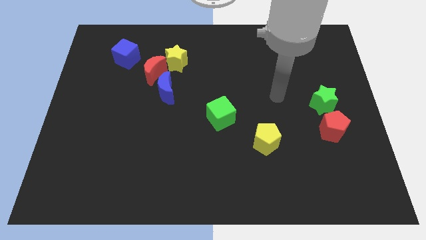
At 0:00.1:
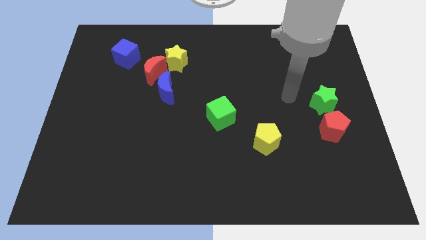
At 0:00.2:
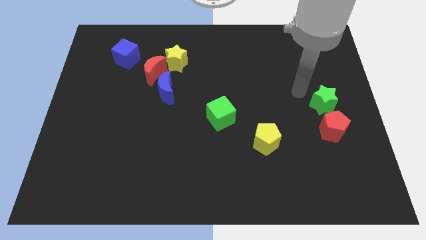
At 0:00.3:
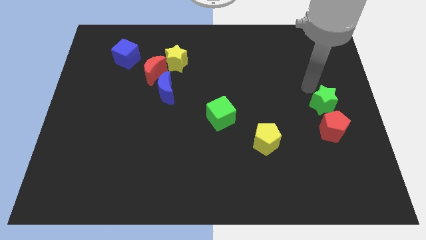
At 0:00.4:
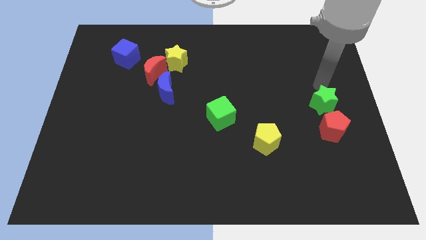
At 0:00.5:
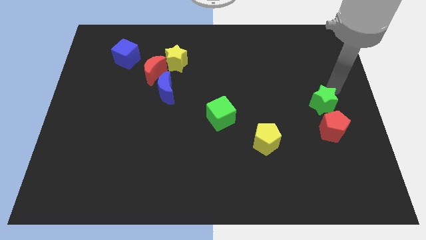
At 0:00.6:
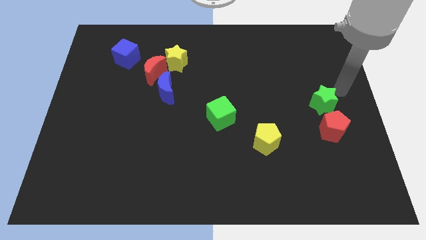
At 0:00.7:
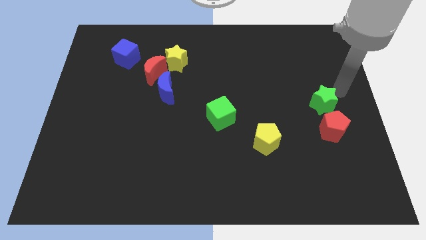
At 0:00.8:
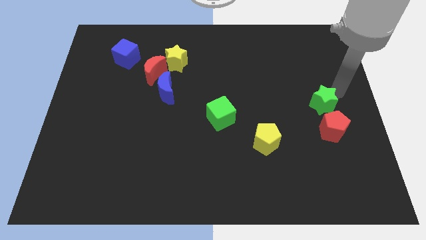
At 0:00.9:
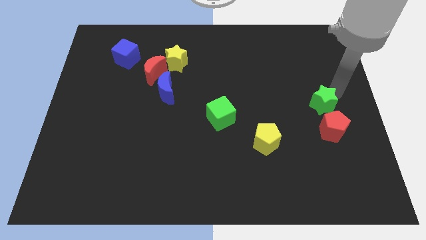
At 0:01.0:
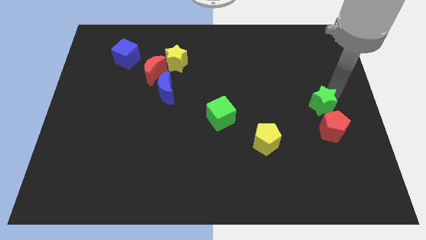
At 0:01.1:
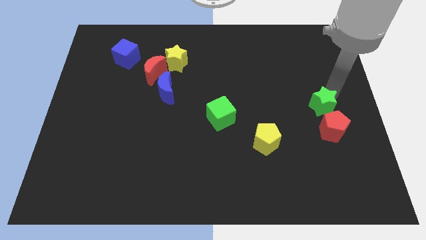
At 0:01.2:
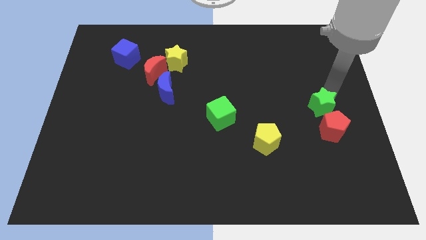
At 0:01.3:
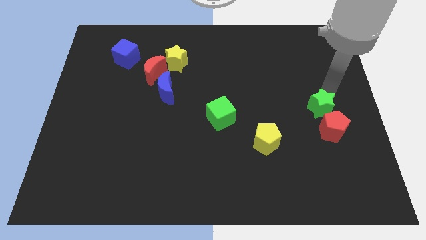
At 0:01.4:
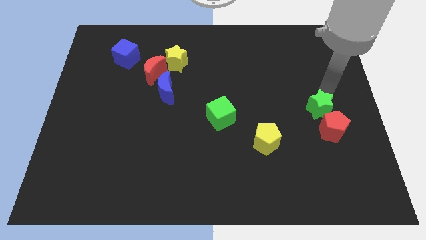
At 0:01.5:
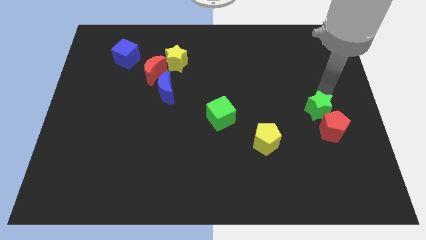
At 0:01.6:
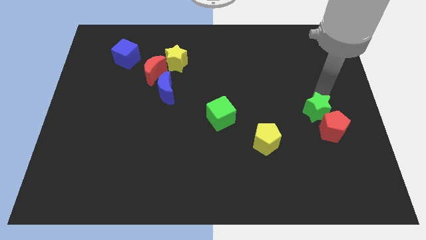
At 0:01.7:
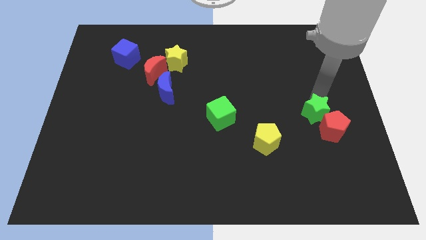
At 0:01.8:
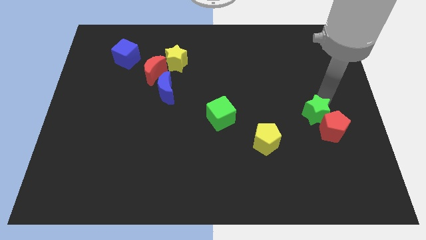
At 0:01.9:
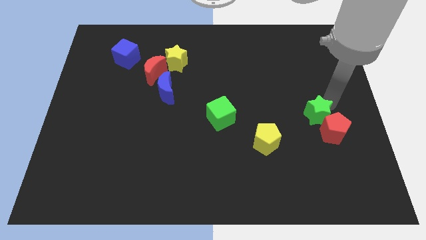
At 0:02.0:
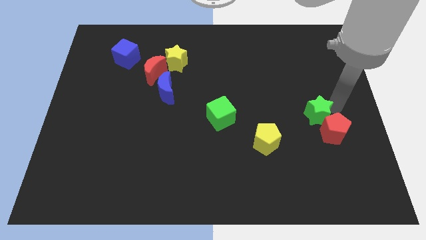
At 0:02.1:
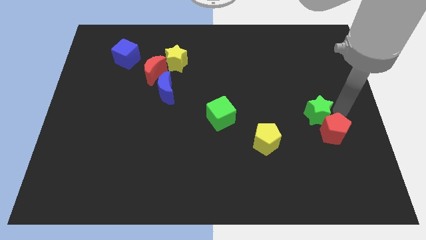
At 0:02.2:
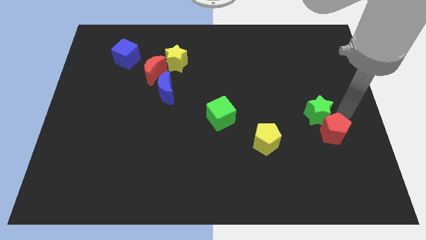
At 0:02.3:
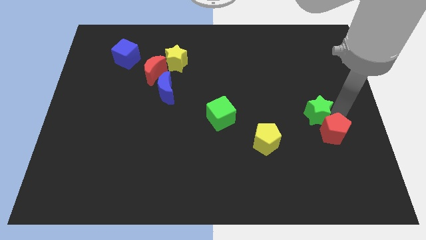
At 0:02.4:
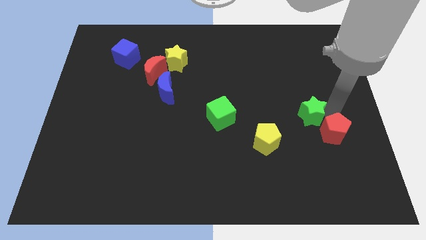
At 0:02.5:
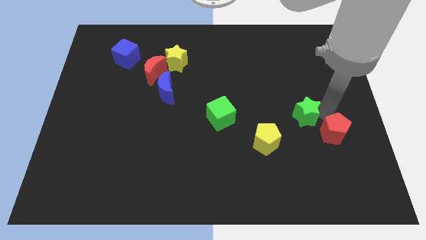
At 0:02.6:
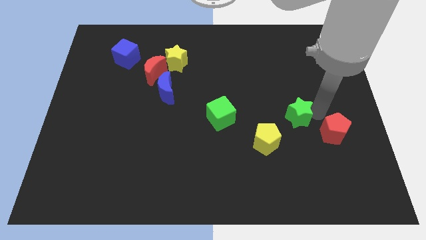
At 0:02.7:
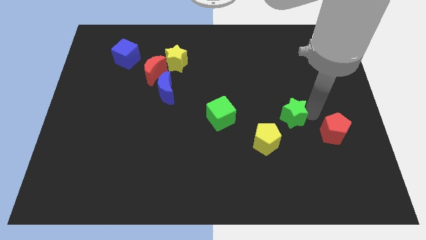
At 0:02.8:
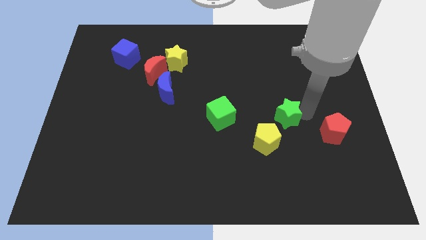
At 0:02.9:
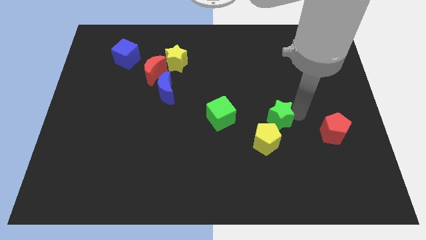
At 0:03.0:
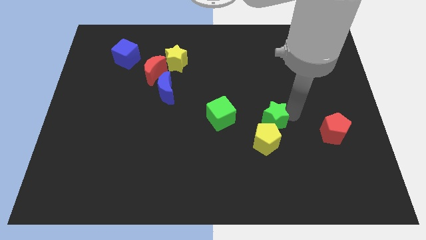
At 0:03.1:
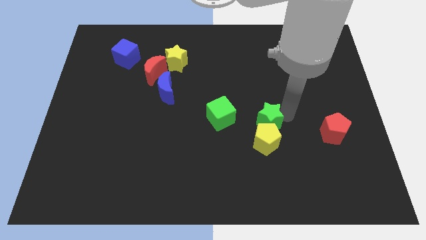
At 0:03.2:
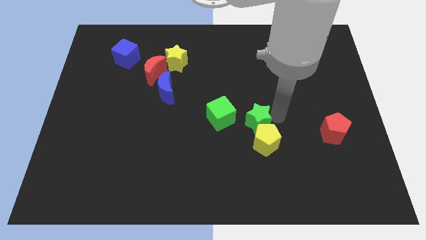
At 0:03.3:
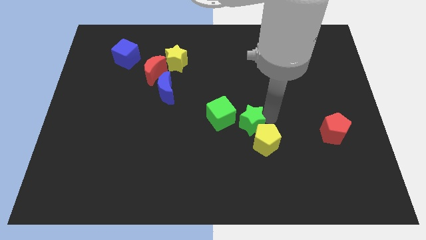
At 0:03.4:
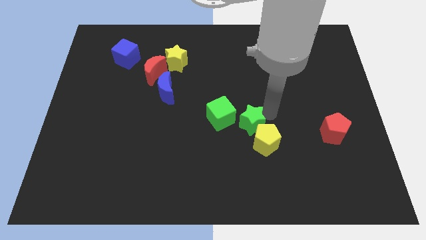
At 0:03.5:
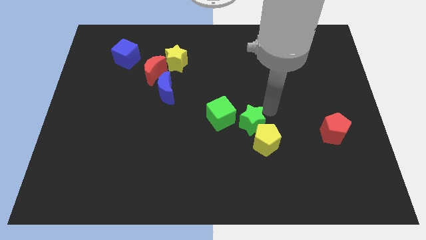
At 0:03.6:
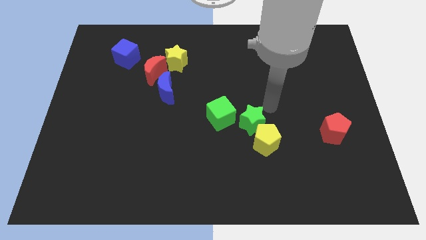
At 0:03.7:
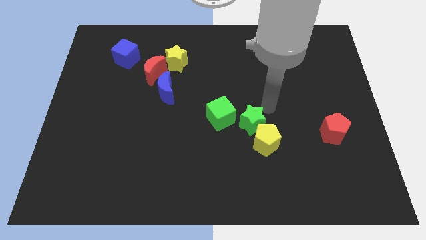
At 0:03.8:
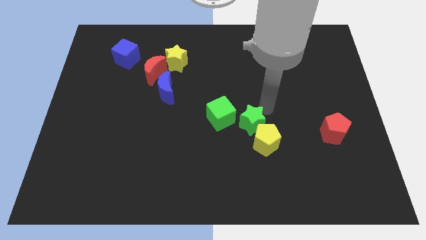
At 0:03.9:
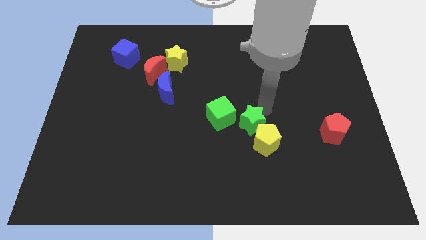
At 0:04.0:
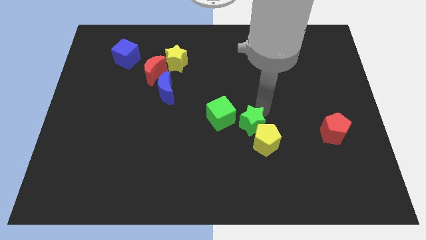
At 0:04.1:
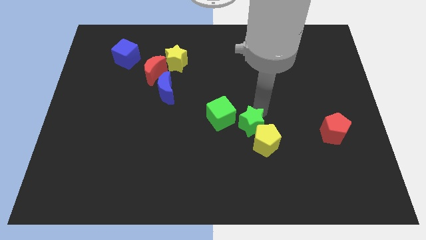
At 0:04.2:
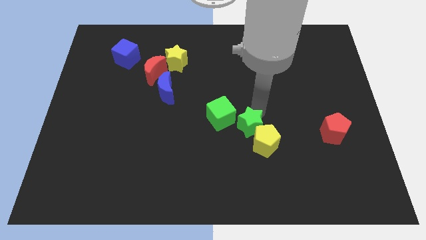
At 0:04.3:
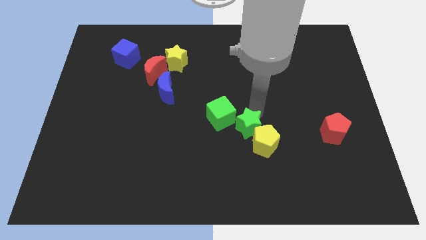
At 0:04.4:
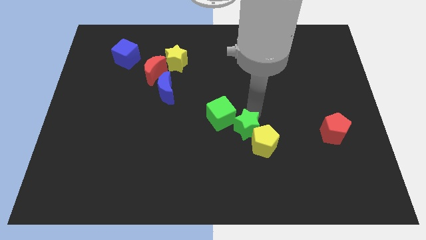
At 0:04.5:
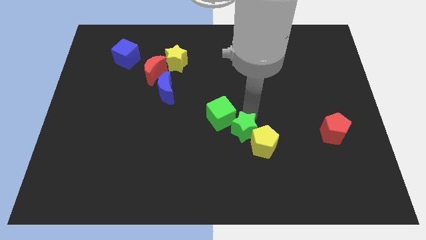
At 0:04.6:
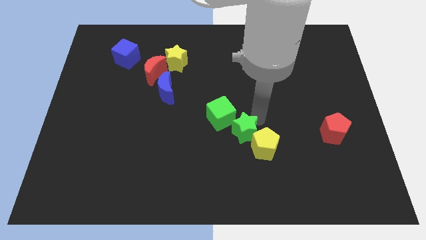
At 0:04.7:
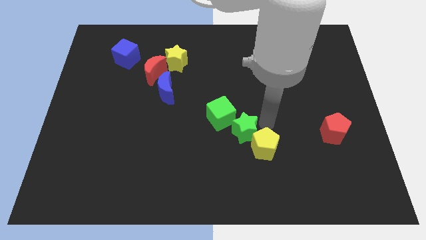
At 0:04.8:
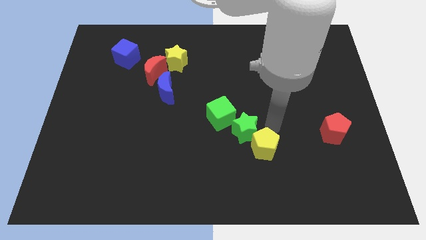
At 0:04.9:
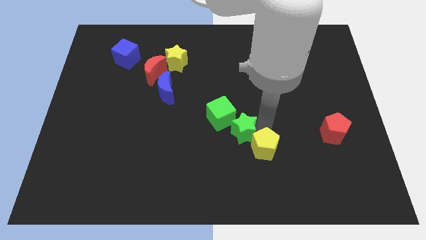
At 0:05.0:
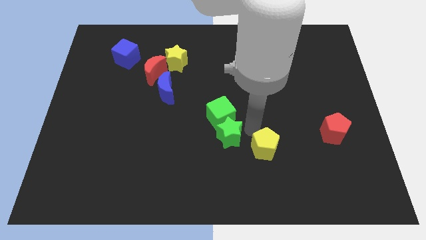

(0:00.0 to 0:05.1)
push the green star diagonally down and to the left of the green cube

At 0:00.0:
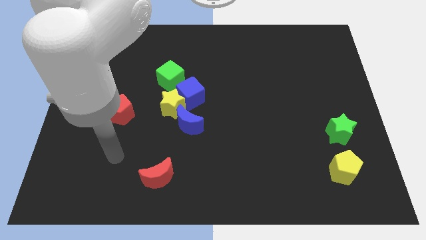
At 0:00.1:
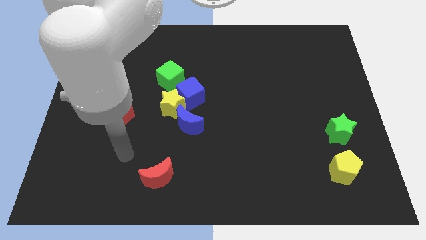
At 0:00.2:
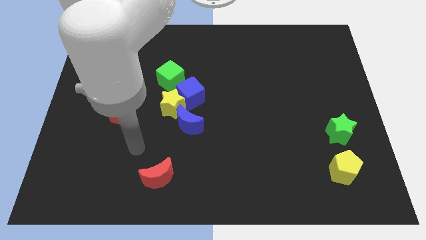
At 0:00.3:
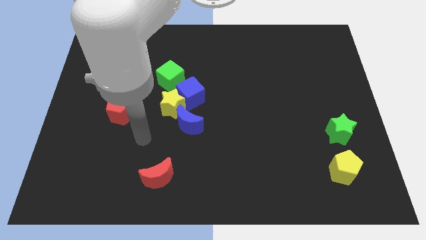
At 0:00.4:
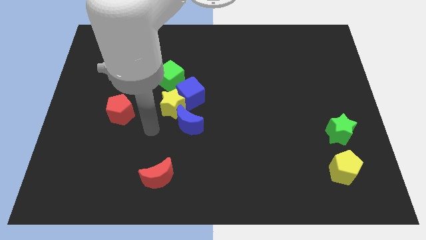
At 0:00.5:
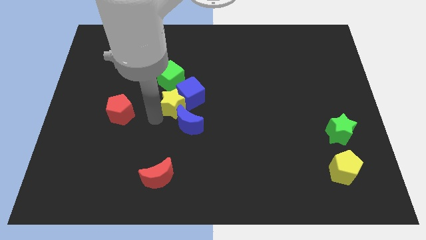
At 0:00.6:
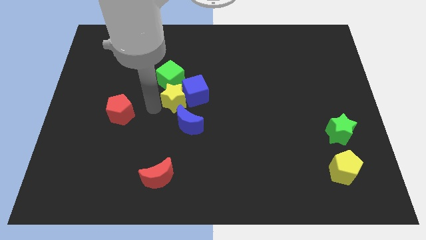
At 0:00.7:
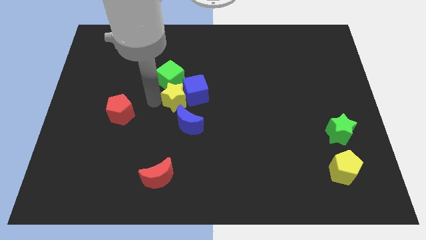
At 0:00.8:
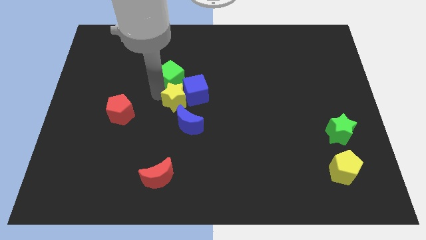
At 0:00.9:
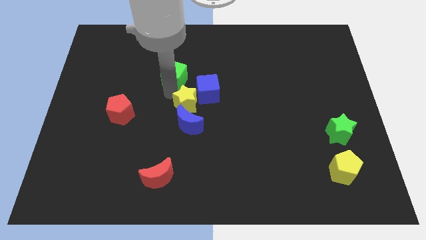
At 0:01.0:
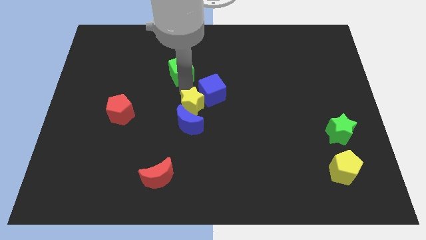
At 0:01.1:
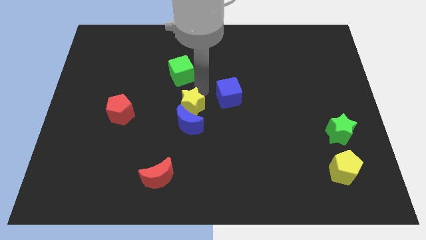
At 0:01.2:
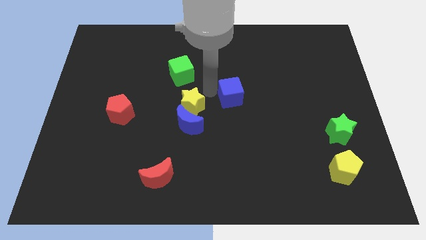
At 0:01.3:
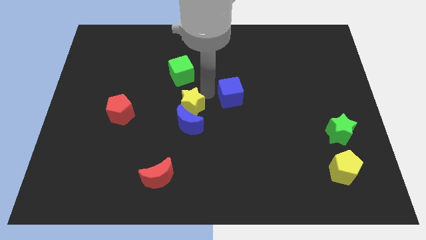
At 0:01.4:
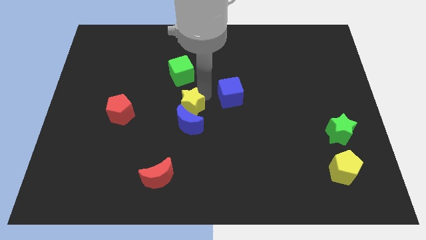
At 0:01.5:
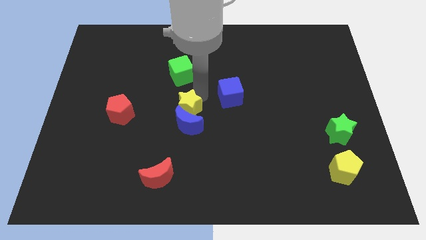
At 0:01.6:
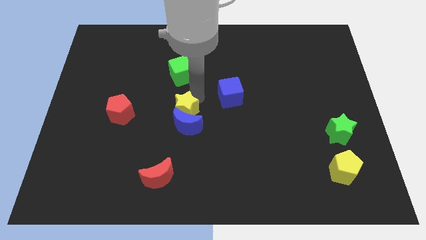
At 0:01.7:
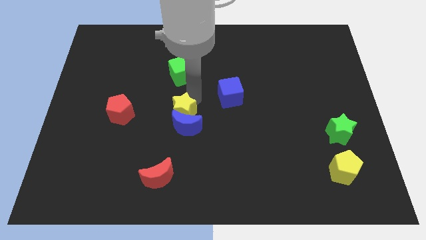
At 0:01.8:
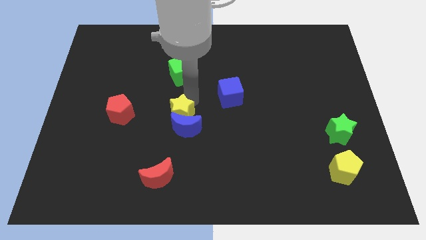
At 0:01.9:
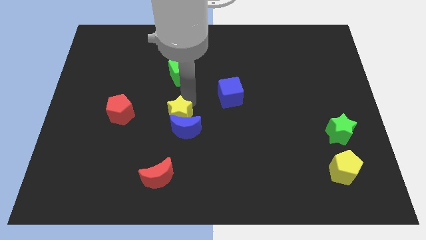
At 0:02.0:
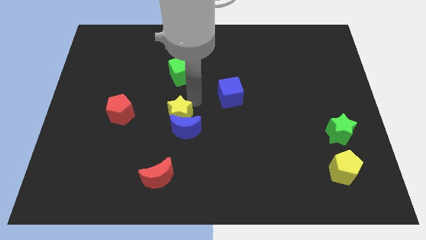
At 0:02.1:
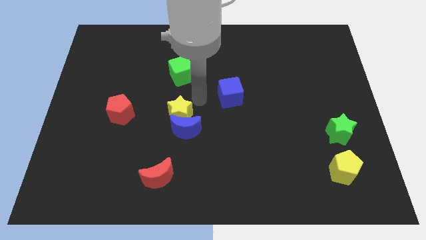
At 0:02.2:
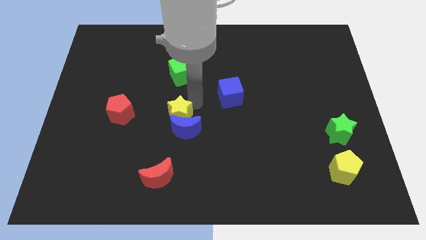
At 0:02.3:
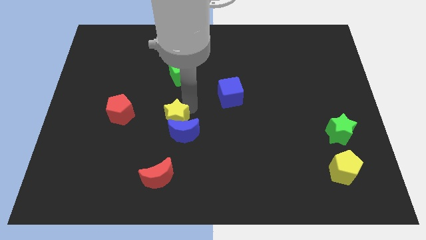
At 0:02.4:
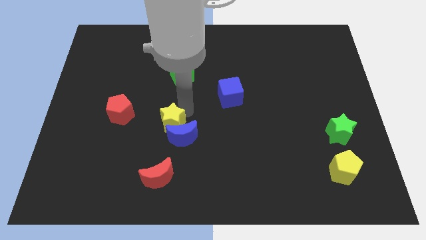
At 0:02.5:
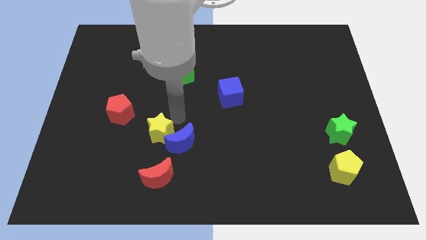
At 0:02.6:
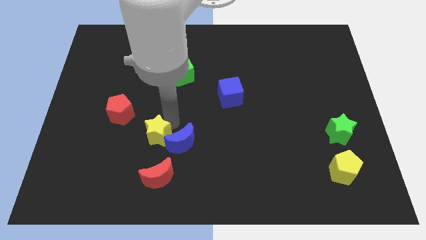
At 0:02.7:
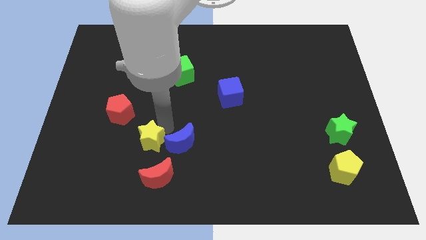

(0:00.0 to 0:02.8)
push the yellow star diagonally up and to the left of the red moon

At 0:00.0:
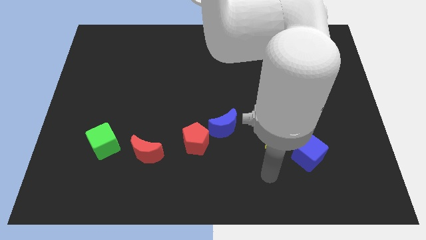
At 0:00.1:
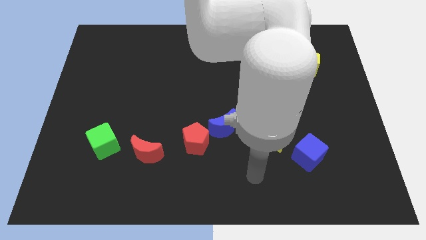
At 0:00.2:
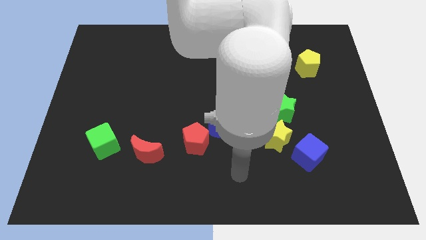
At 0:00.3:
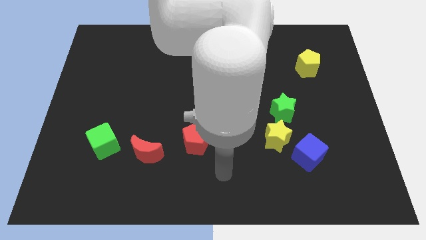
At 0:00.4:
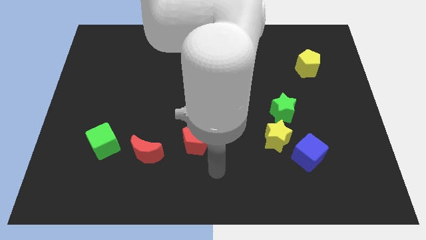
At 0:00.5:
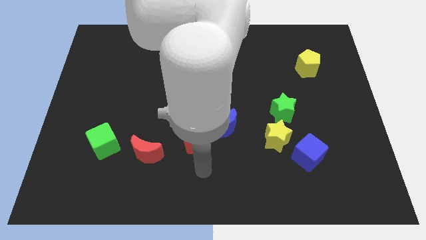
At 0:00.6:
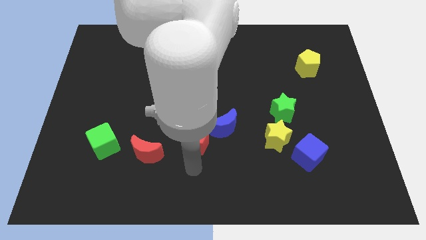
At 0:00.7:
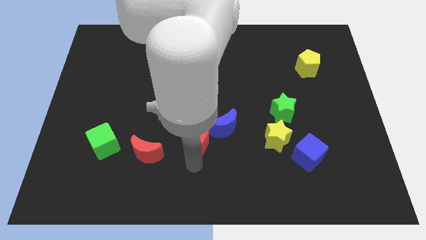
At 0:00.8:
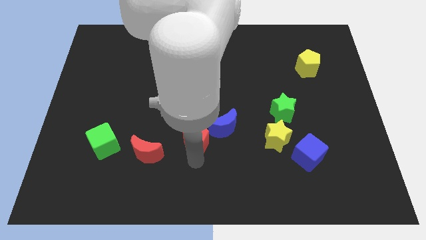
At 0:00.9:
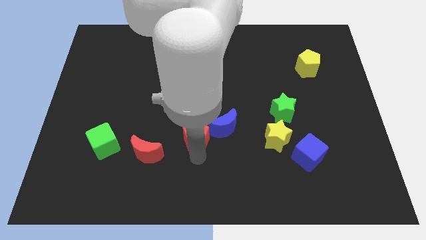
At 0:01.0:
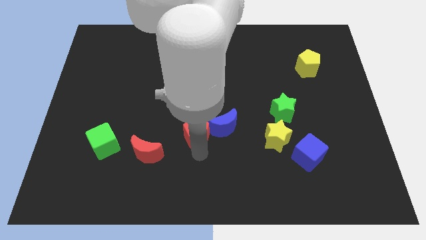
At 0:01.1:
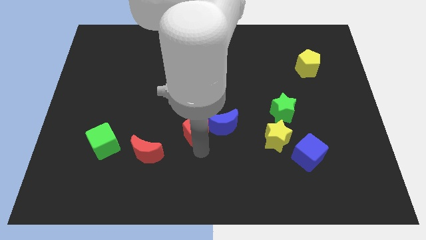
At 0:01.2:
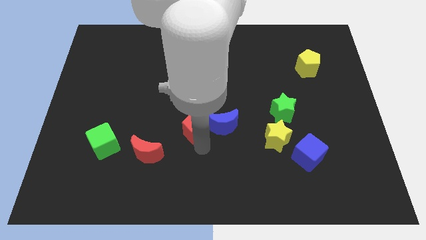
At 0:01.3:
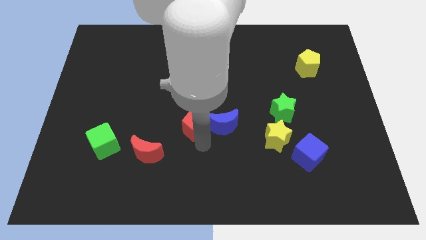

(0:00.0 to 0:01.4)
move the red pentagon to the top left of the blue moon
